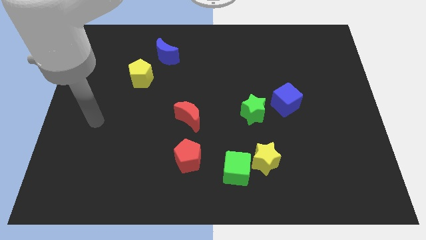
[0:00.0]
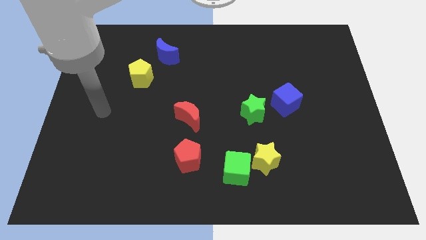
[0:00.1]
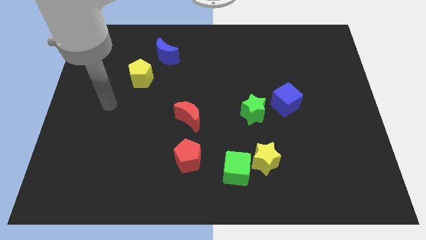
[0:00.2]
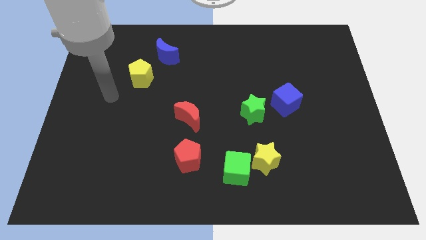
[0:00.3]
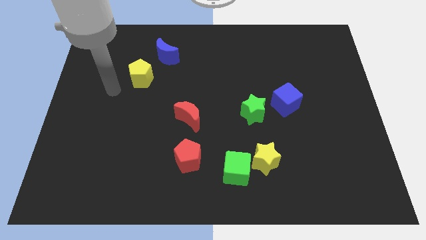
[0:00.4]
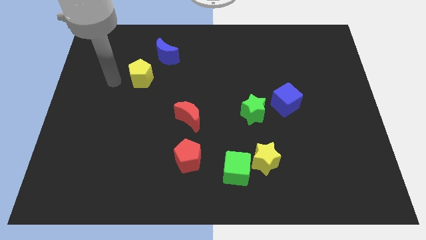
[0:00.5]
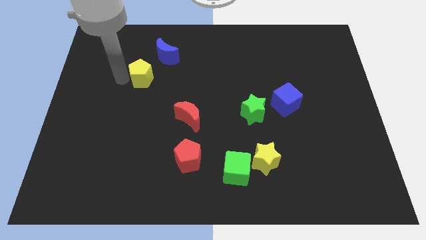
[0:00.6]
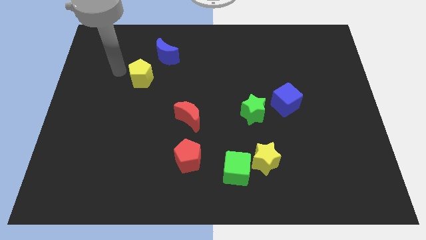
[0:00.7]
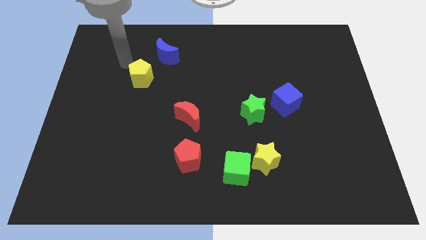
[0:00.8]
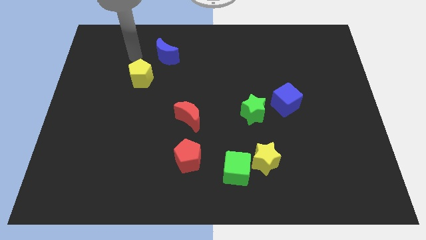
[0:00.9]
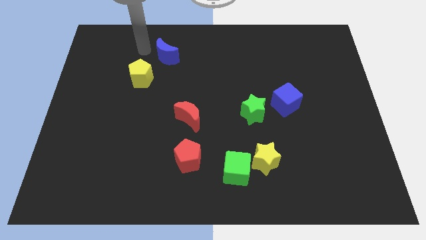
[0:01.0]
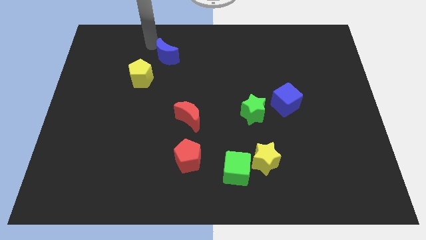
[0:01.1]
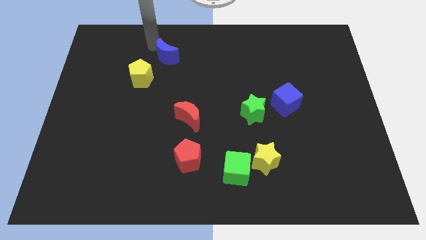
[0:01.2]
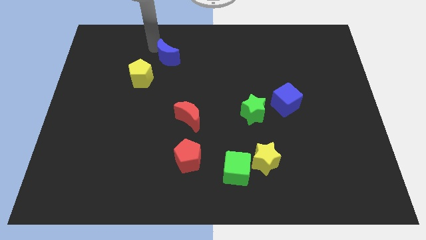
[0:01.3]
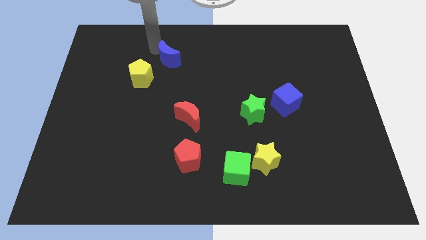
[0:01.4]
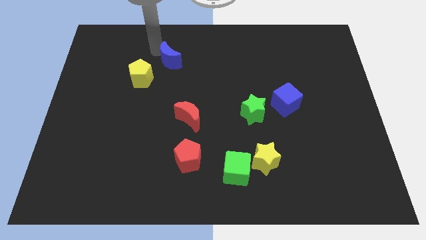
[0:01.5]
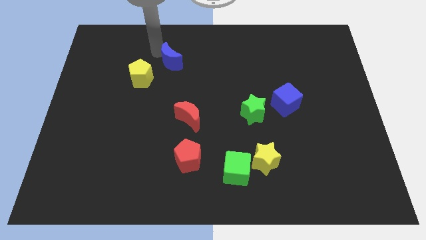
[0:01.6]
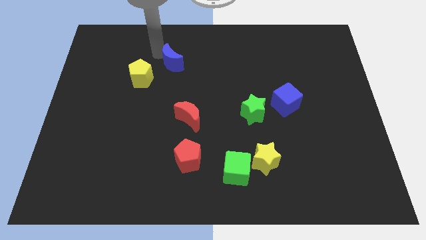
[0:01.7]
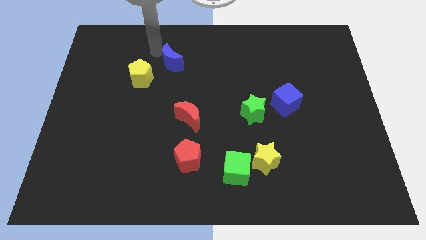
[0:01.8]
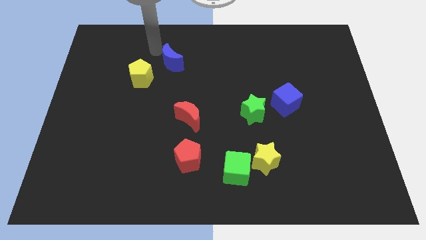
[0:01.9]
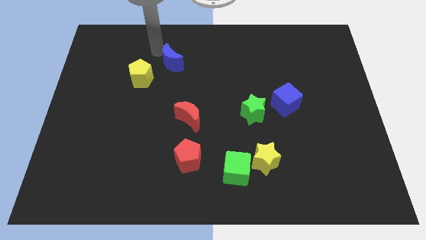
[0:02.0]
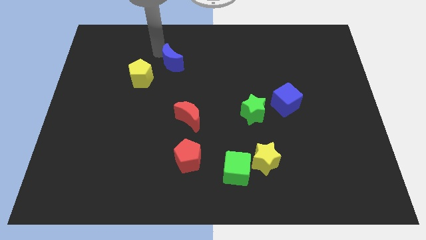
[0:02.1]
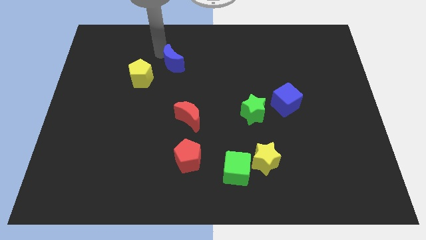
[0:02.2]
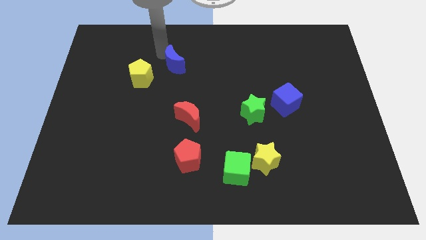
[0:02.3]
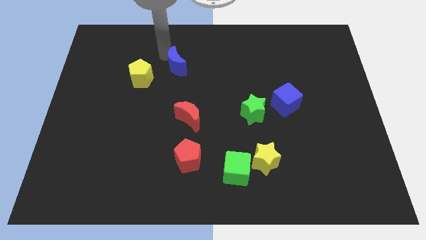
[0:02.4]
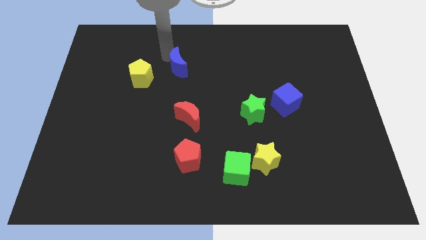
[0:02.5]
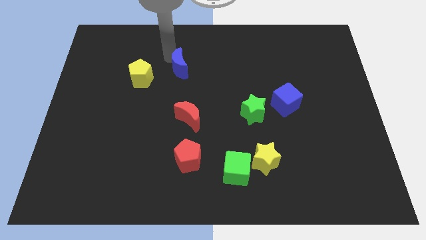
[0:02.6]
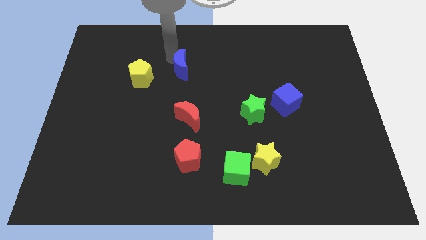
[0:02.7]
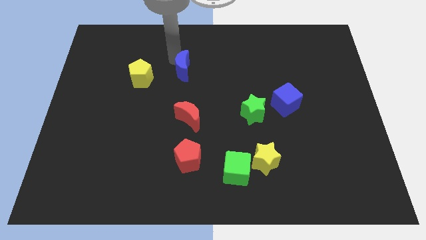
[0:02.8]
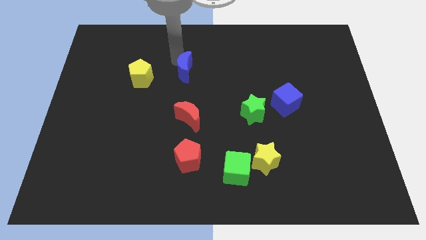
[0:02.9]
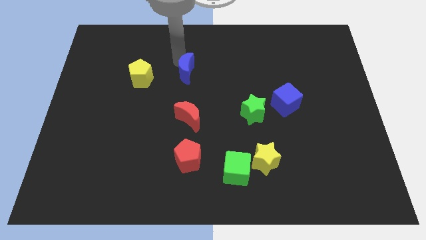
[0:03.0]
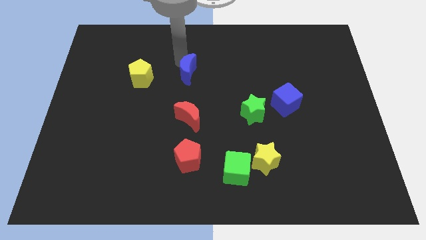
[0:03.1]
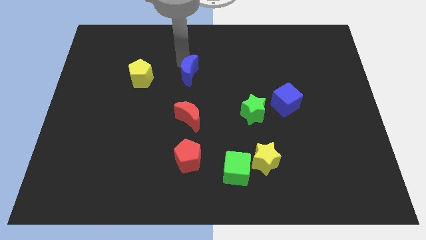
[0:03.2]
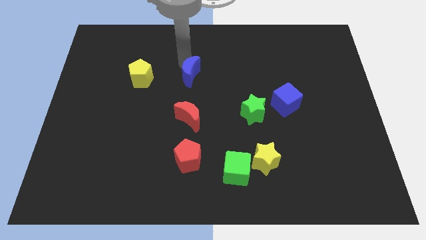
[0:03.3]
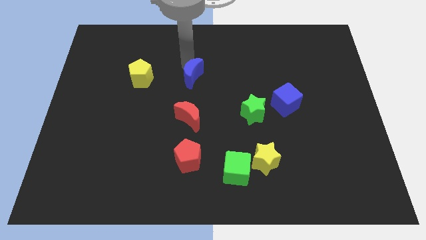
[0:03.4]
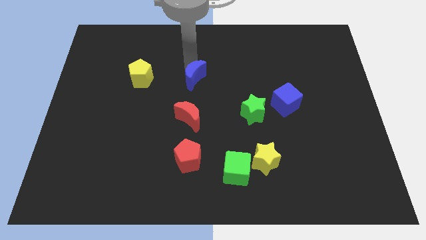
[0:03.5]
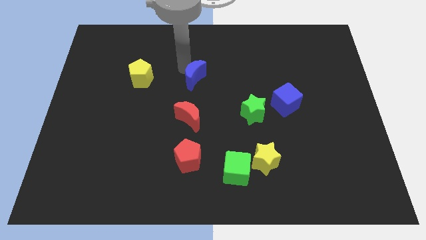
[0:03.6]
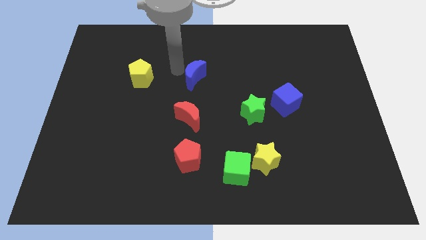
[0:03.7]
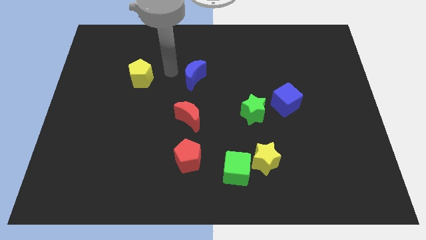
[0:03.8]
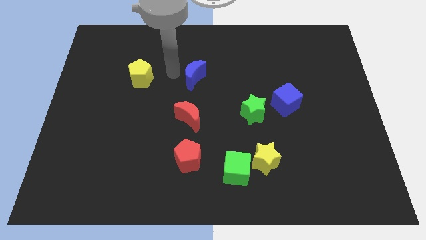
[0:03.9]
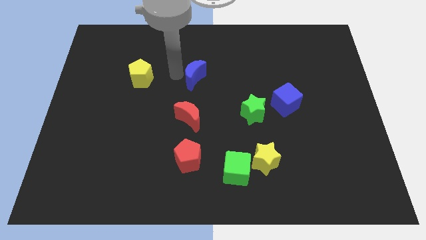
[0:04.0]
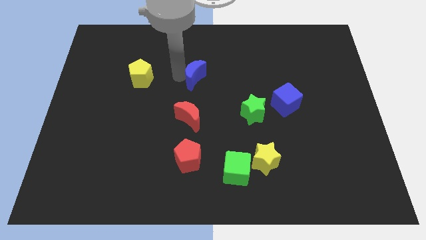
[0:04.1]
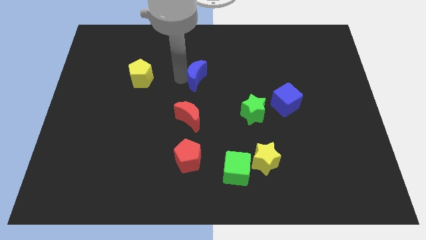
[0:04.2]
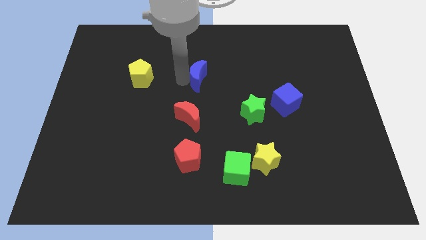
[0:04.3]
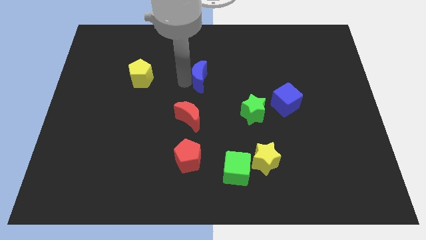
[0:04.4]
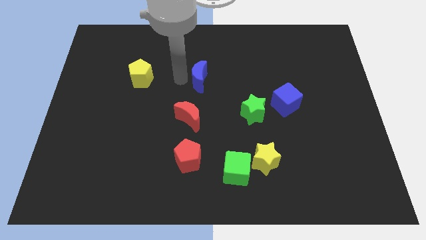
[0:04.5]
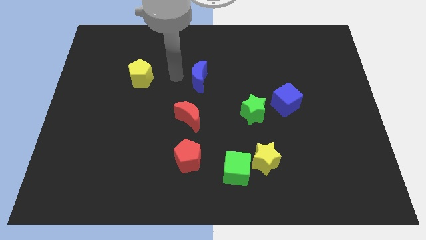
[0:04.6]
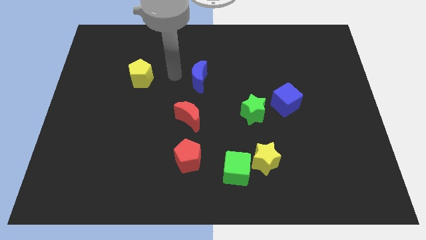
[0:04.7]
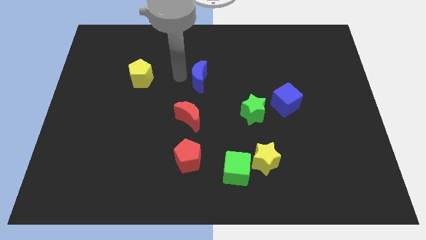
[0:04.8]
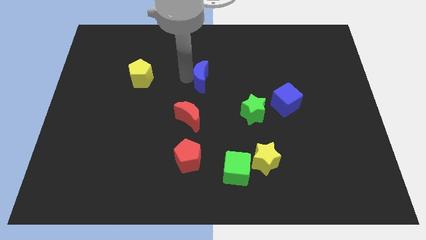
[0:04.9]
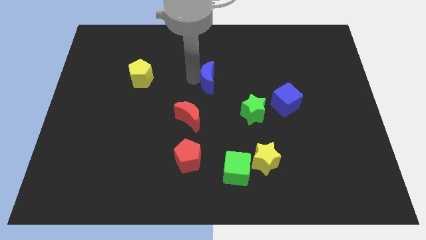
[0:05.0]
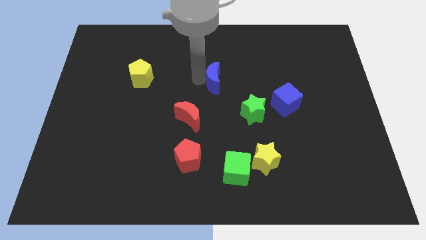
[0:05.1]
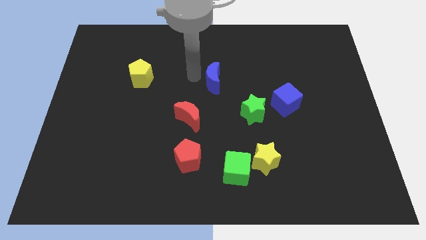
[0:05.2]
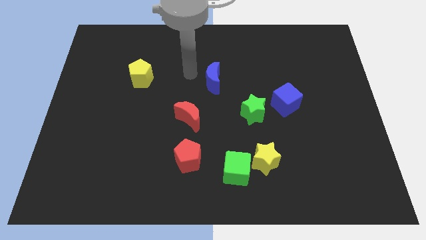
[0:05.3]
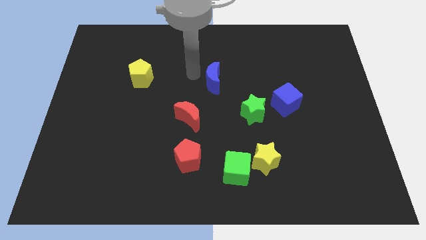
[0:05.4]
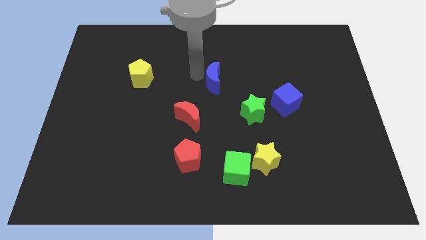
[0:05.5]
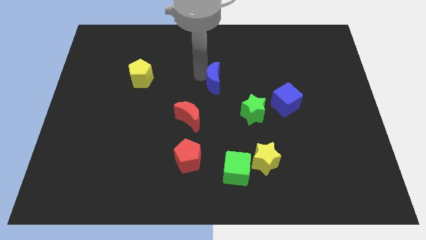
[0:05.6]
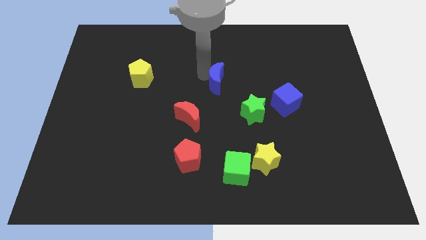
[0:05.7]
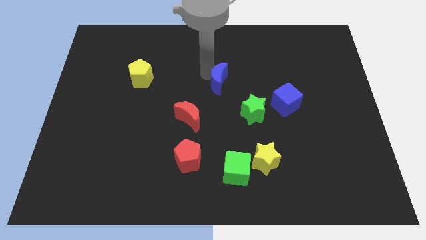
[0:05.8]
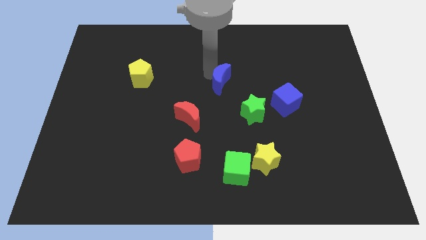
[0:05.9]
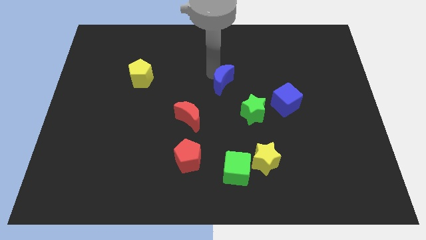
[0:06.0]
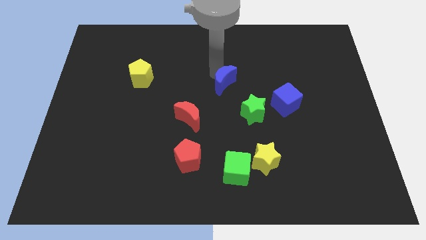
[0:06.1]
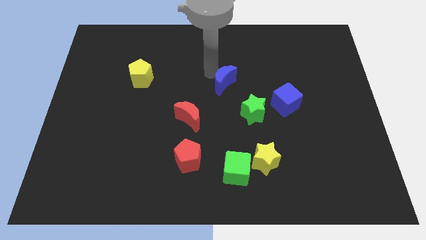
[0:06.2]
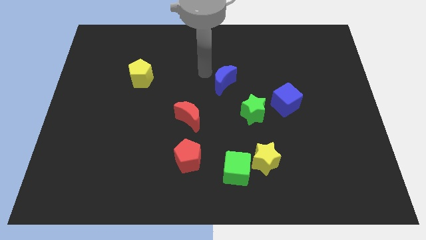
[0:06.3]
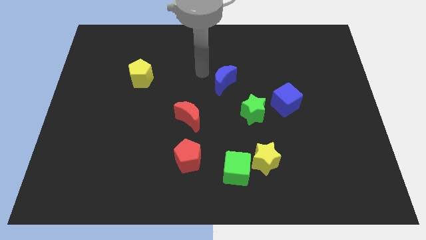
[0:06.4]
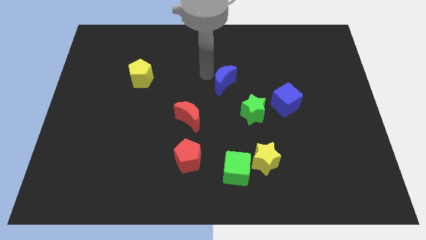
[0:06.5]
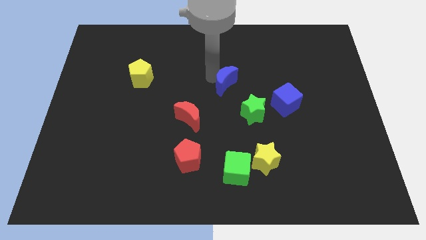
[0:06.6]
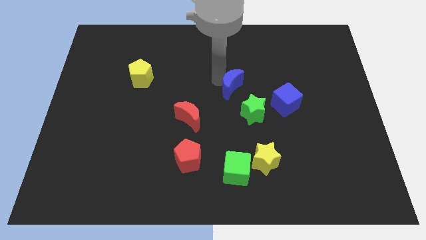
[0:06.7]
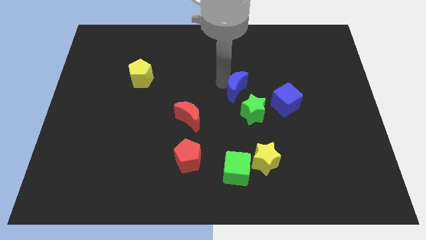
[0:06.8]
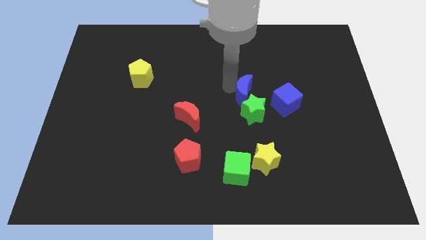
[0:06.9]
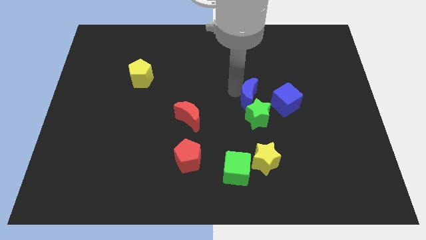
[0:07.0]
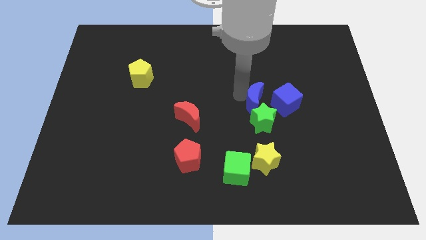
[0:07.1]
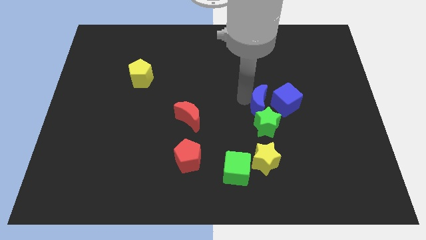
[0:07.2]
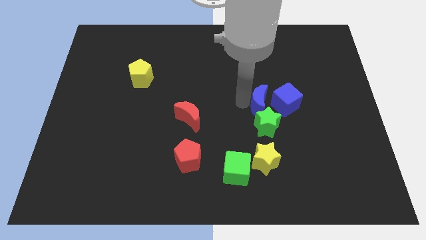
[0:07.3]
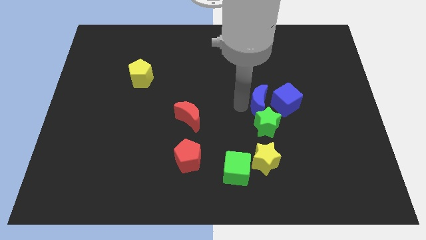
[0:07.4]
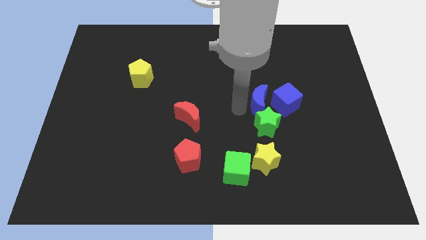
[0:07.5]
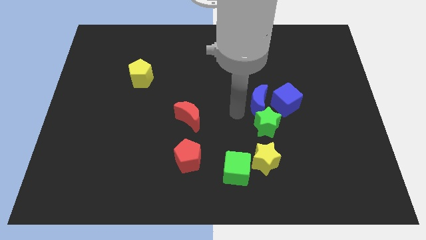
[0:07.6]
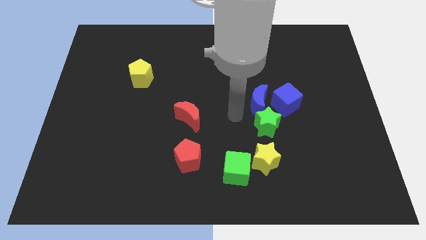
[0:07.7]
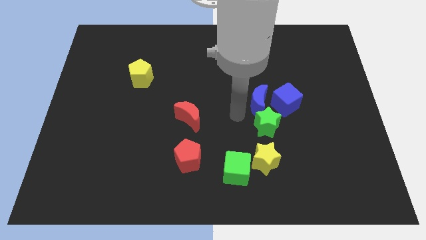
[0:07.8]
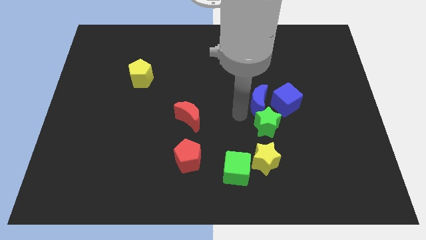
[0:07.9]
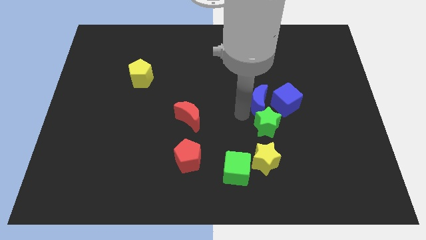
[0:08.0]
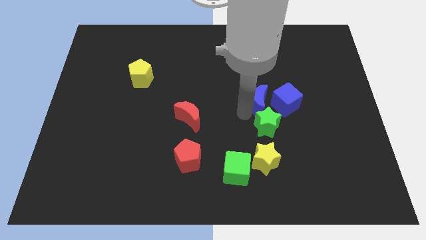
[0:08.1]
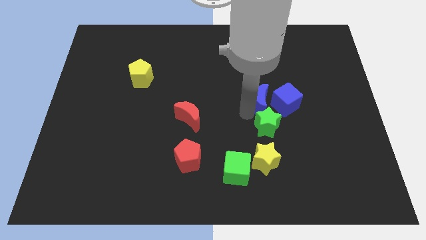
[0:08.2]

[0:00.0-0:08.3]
push the blue moon next to the blue cube
